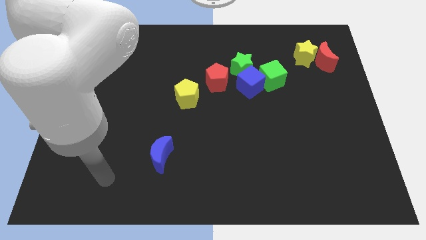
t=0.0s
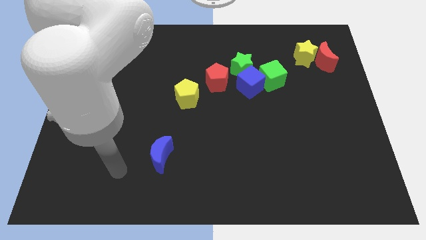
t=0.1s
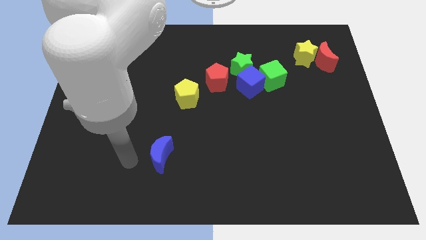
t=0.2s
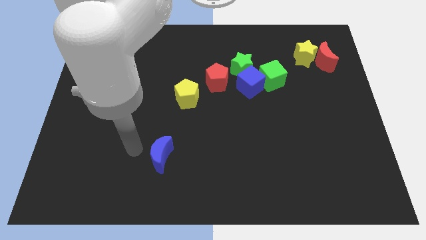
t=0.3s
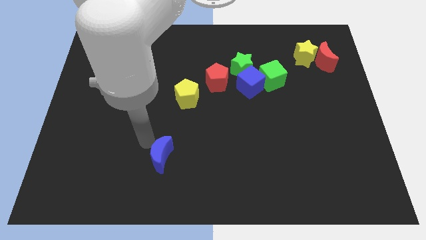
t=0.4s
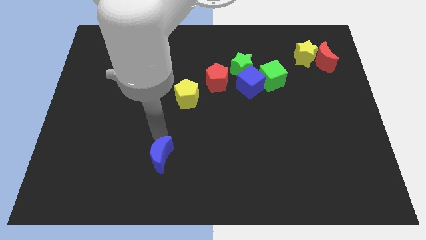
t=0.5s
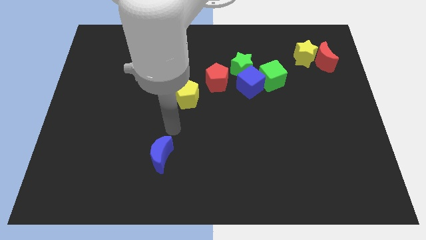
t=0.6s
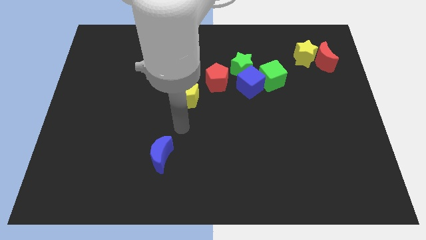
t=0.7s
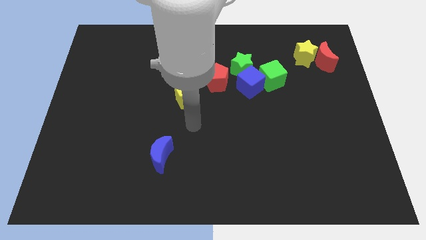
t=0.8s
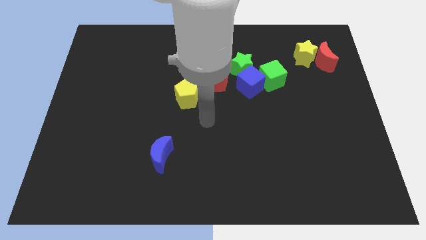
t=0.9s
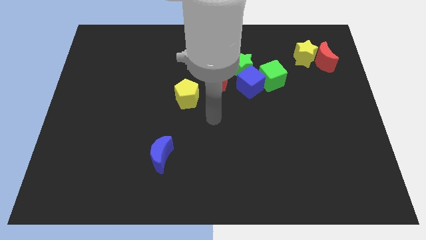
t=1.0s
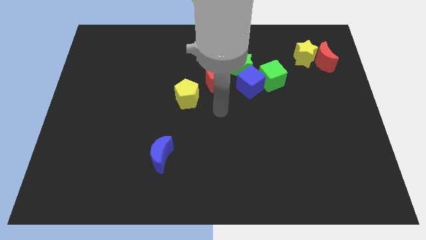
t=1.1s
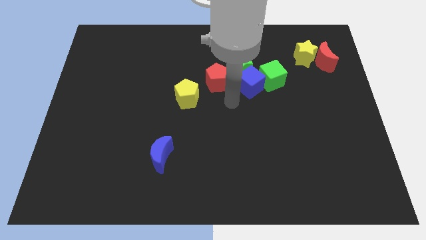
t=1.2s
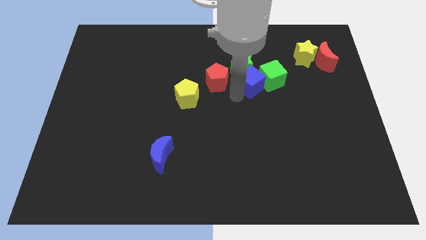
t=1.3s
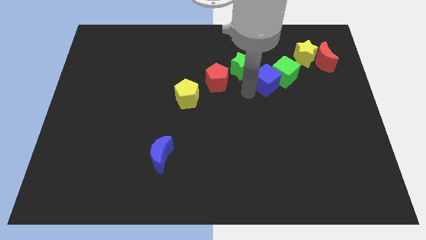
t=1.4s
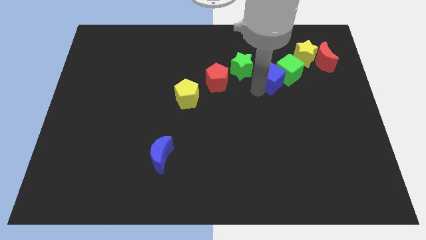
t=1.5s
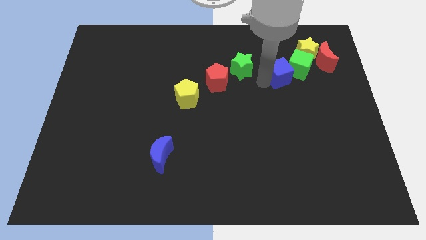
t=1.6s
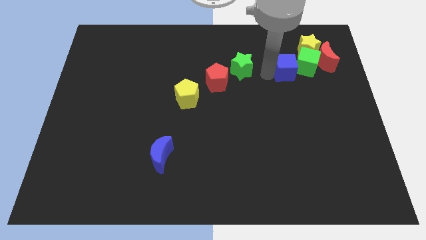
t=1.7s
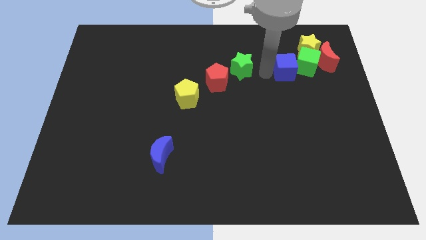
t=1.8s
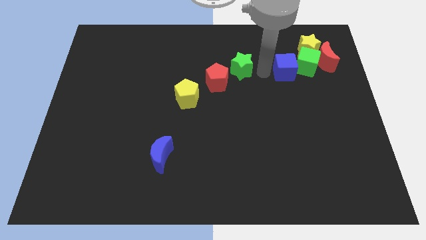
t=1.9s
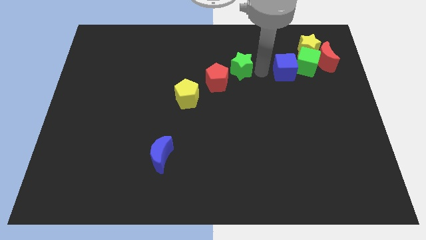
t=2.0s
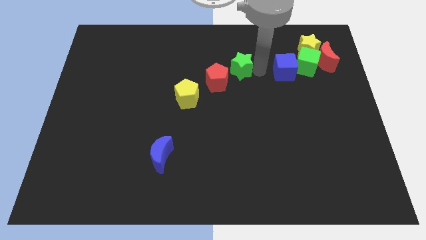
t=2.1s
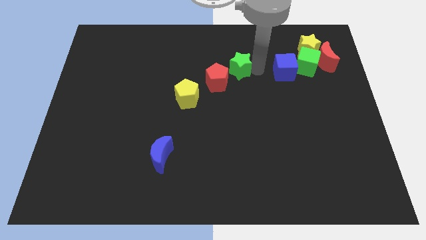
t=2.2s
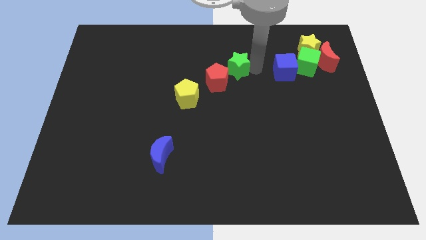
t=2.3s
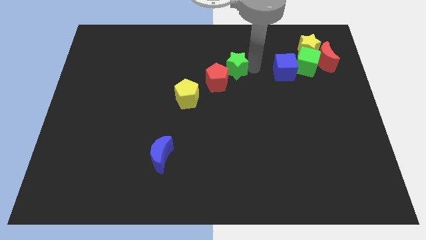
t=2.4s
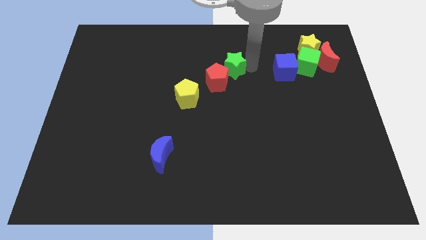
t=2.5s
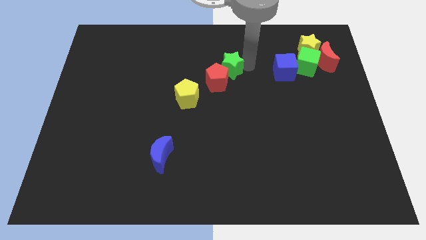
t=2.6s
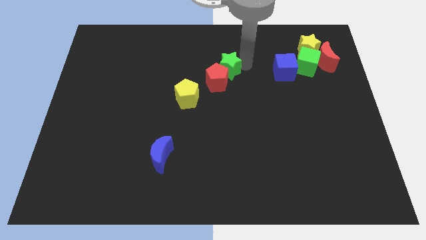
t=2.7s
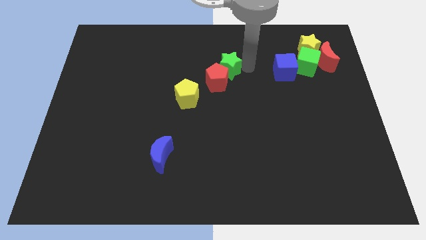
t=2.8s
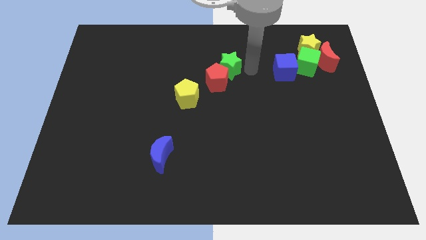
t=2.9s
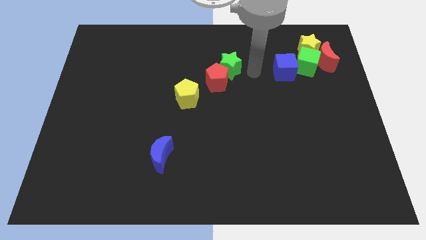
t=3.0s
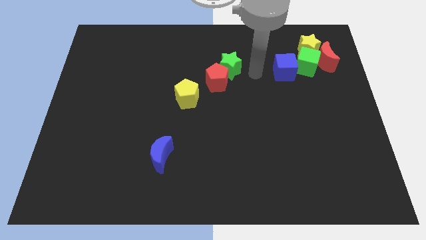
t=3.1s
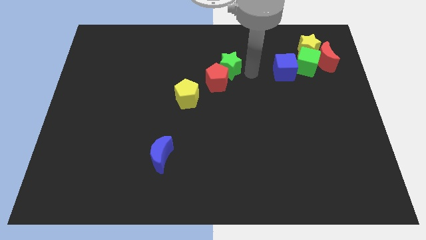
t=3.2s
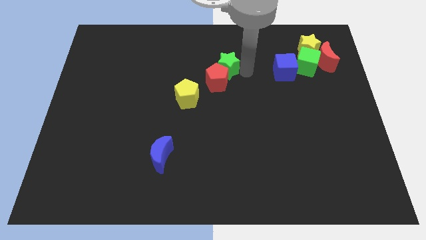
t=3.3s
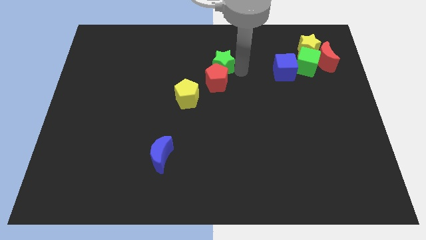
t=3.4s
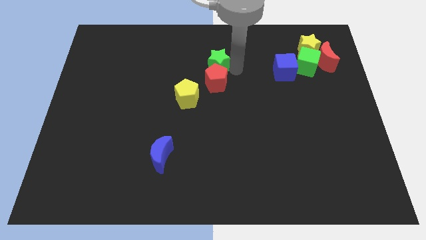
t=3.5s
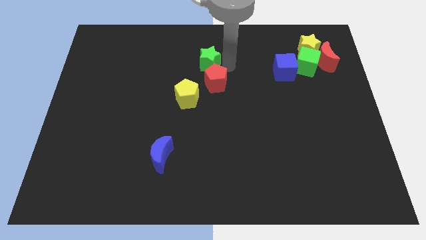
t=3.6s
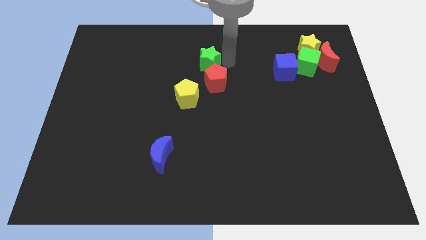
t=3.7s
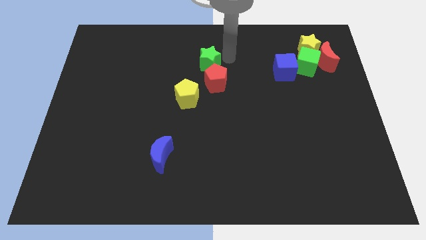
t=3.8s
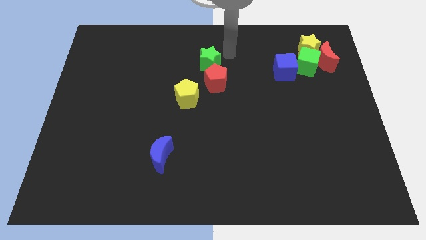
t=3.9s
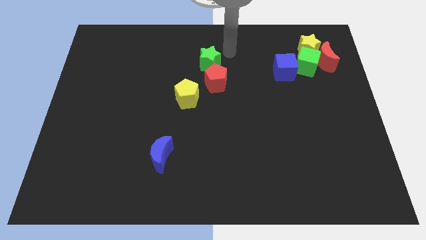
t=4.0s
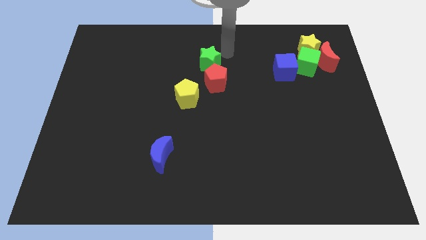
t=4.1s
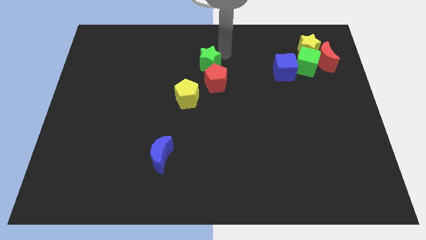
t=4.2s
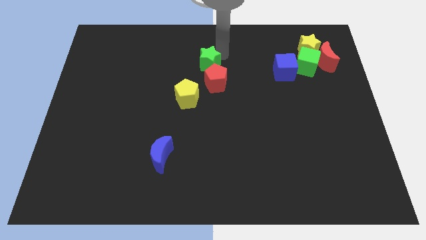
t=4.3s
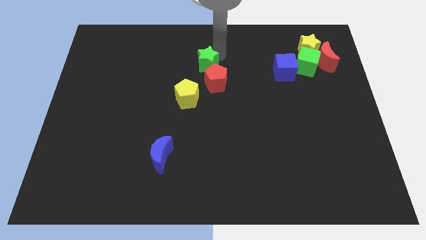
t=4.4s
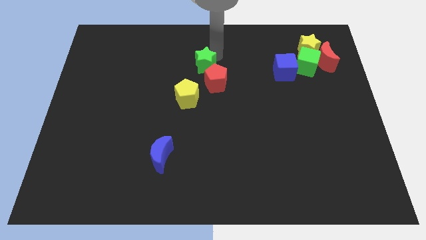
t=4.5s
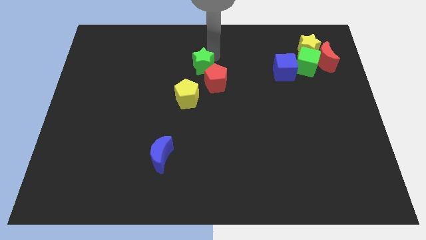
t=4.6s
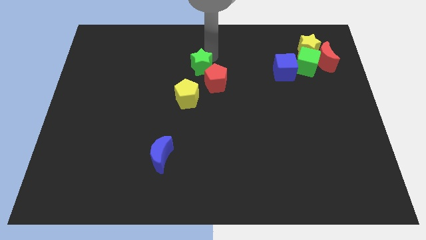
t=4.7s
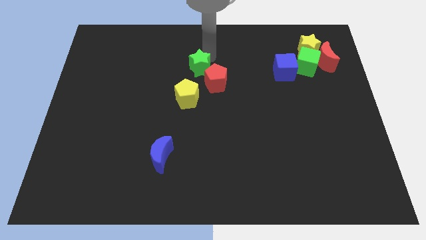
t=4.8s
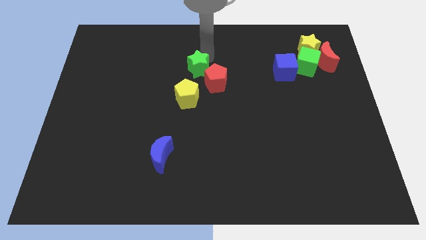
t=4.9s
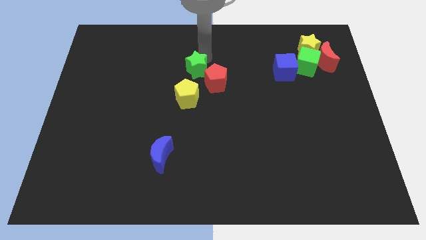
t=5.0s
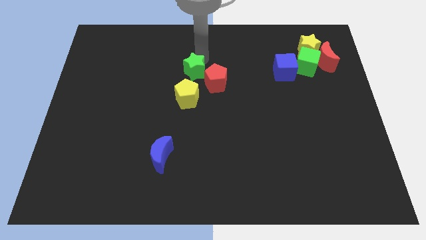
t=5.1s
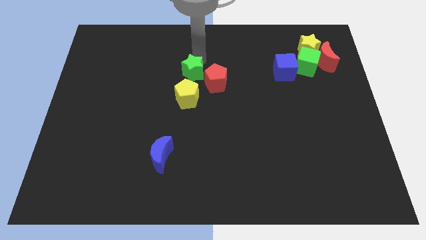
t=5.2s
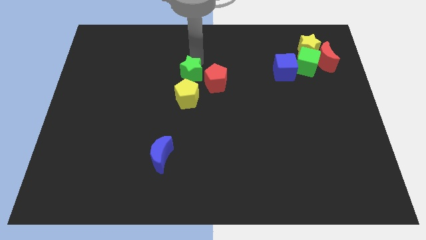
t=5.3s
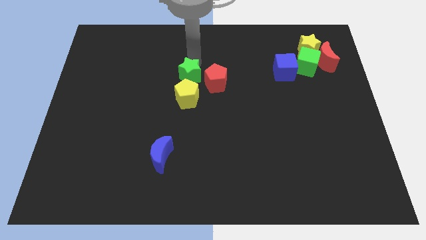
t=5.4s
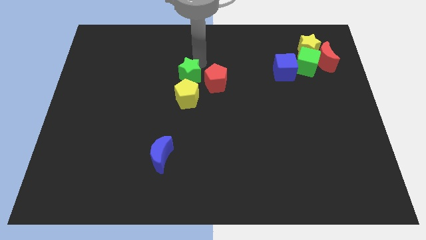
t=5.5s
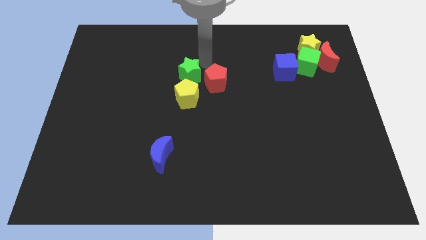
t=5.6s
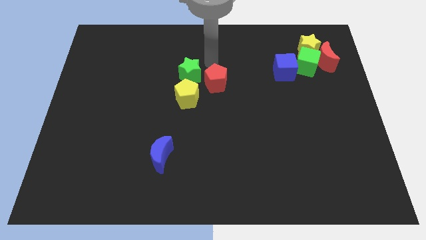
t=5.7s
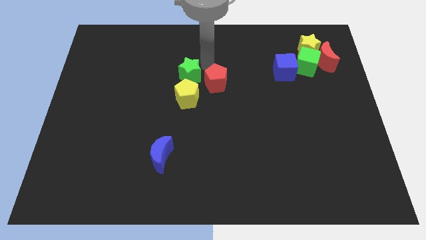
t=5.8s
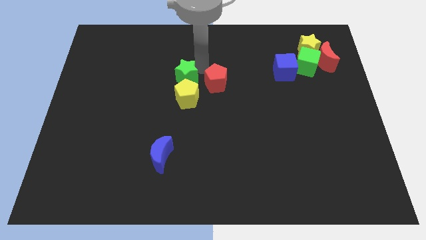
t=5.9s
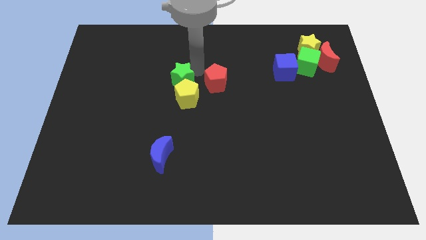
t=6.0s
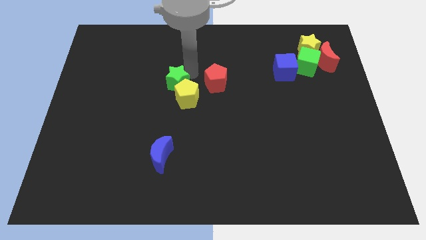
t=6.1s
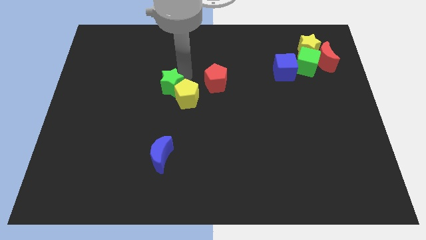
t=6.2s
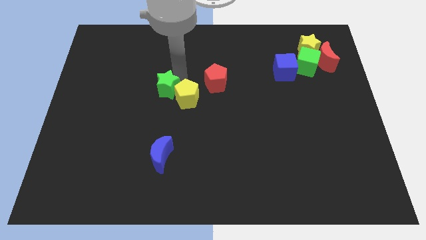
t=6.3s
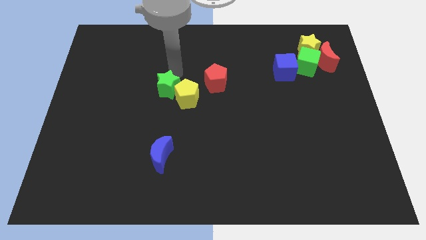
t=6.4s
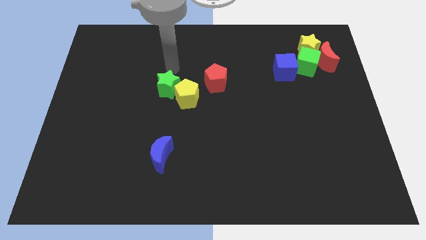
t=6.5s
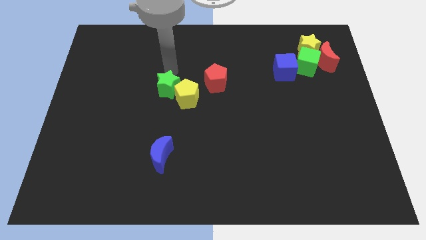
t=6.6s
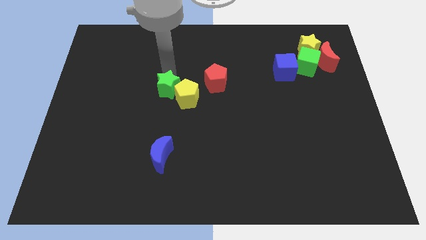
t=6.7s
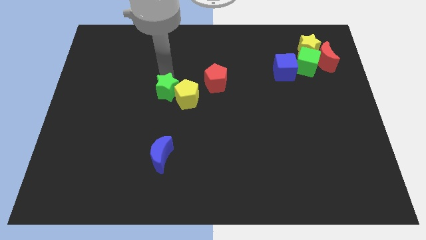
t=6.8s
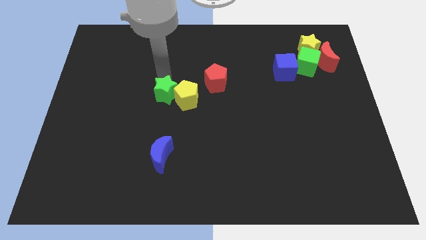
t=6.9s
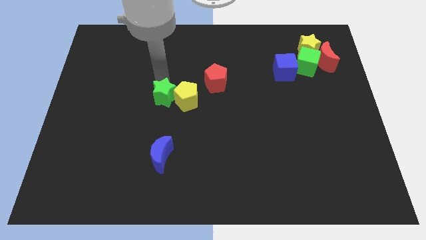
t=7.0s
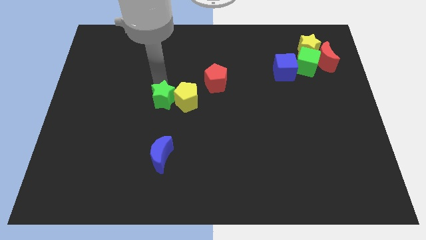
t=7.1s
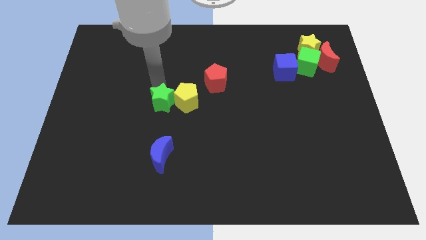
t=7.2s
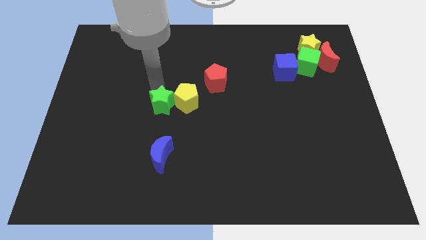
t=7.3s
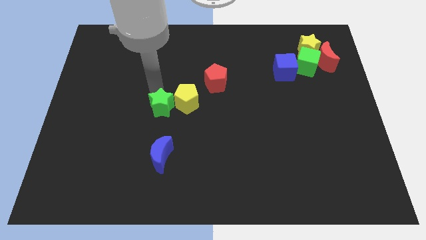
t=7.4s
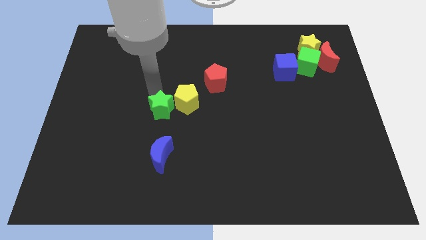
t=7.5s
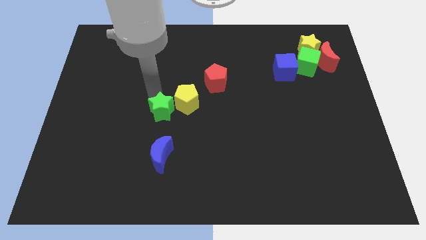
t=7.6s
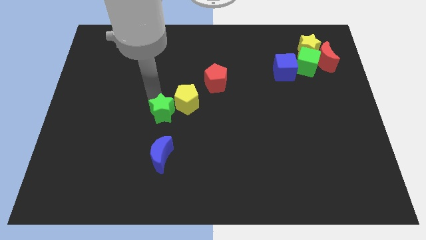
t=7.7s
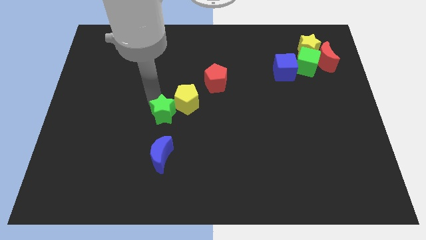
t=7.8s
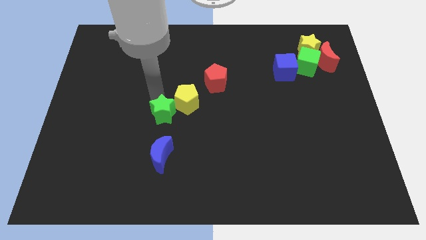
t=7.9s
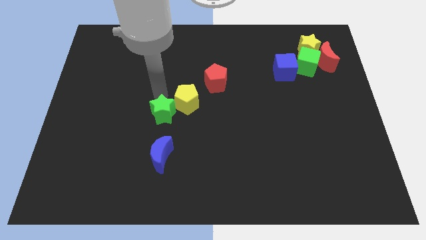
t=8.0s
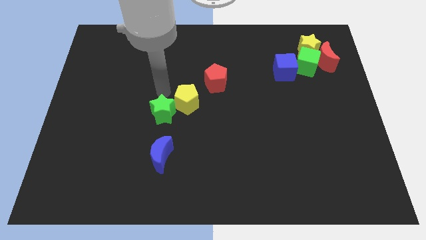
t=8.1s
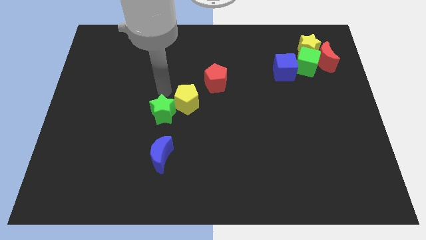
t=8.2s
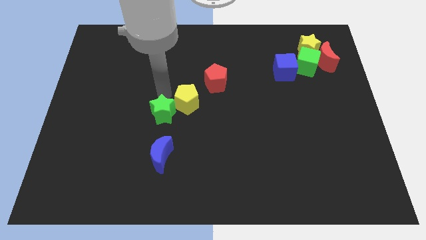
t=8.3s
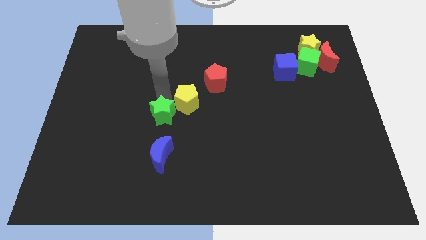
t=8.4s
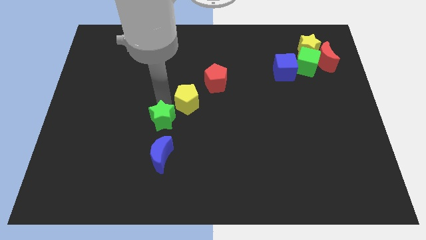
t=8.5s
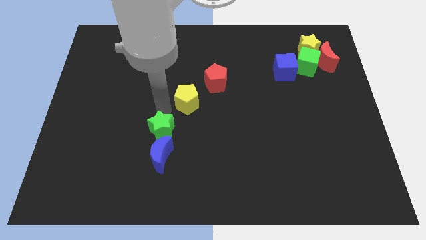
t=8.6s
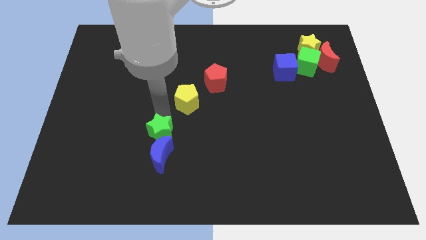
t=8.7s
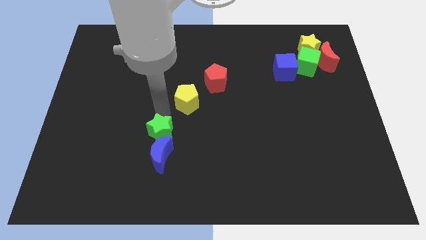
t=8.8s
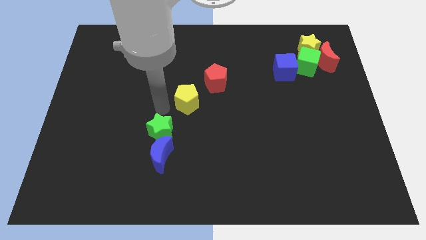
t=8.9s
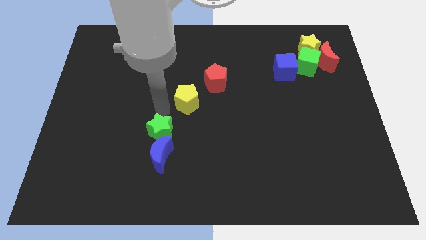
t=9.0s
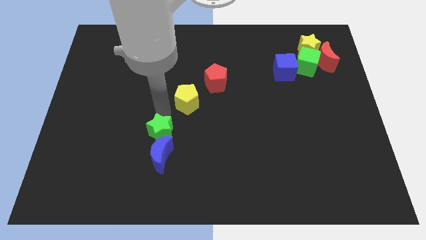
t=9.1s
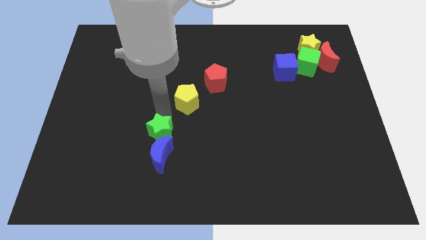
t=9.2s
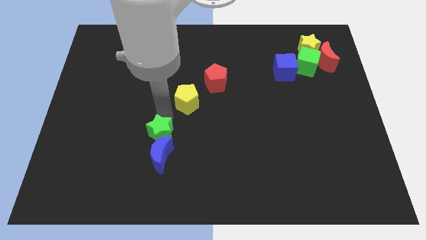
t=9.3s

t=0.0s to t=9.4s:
push the green star towards the blue moon
